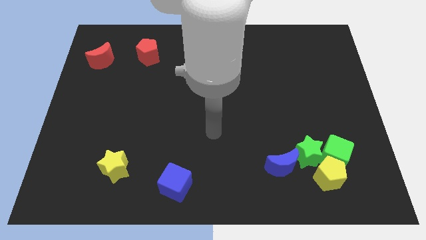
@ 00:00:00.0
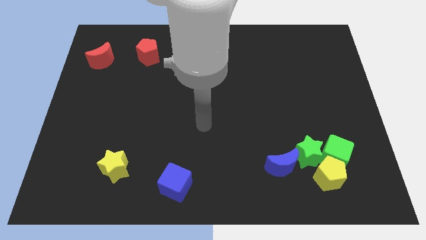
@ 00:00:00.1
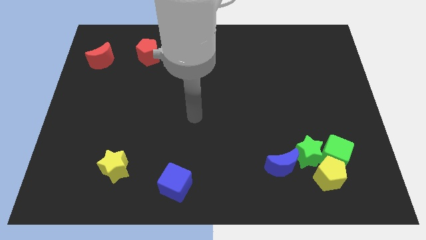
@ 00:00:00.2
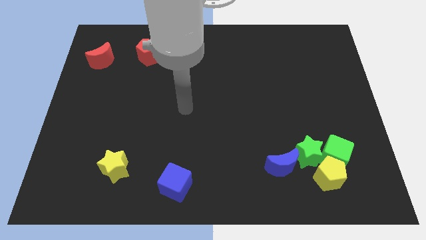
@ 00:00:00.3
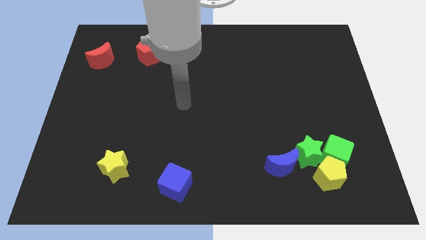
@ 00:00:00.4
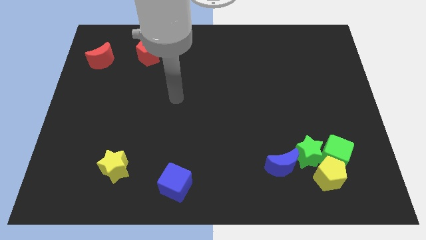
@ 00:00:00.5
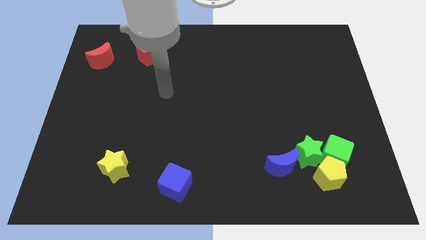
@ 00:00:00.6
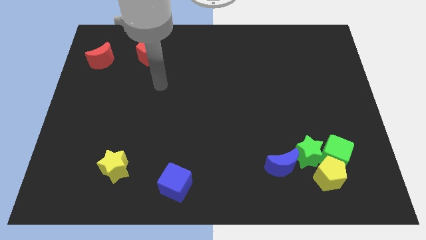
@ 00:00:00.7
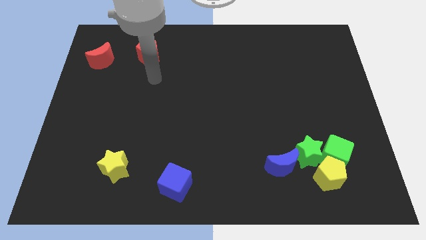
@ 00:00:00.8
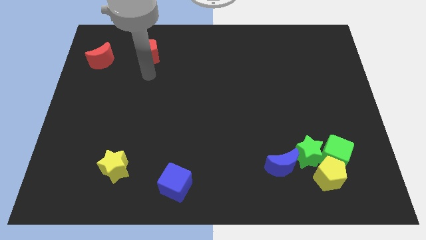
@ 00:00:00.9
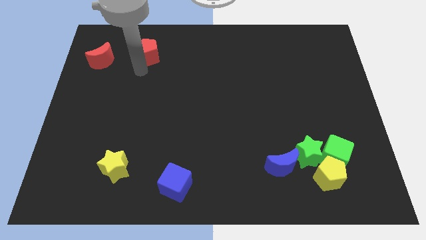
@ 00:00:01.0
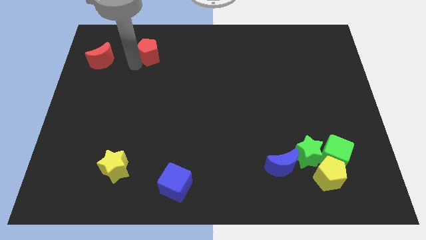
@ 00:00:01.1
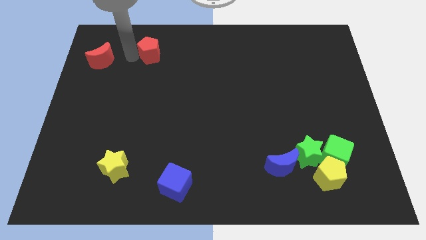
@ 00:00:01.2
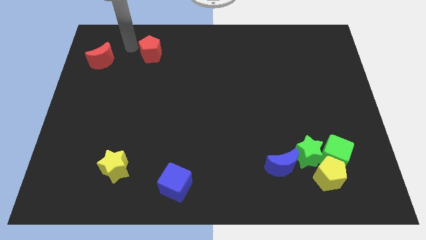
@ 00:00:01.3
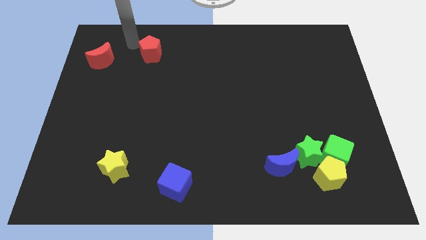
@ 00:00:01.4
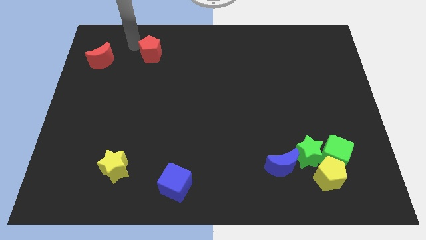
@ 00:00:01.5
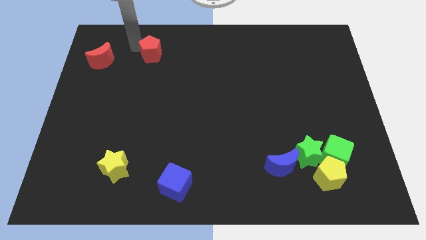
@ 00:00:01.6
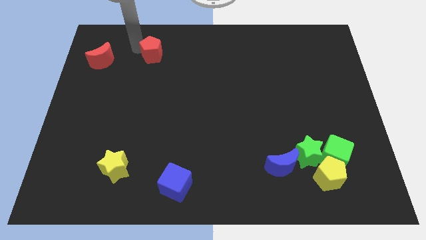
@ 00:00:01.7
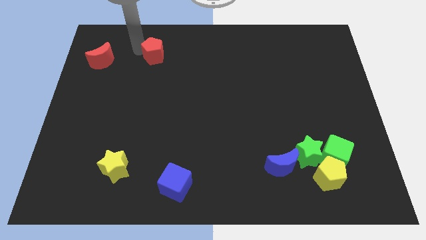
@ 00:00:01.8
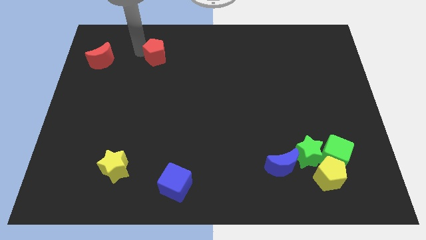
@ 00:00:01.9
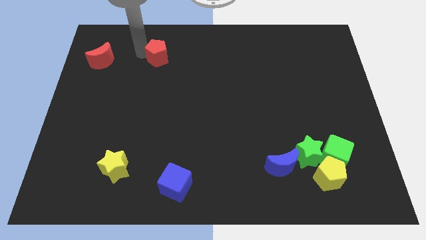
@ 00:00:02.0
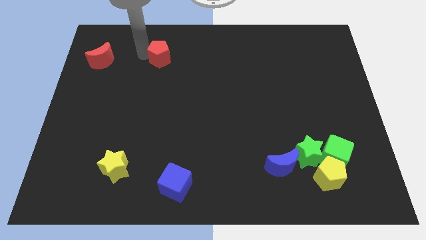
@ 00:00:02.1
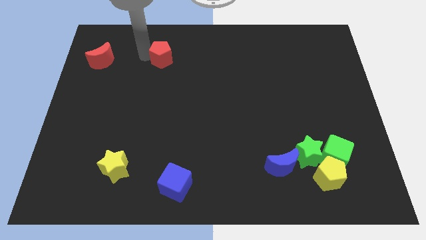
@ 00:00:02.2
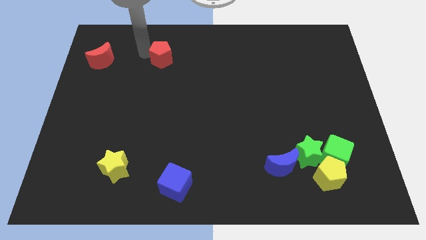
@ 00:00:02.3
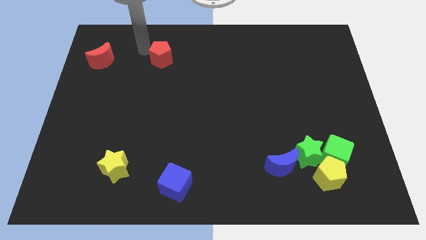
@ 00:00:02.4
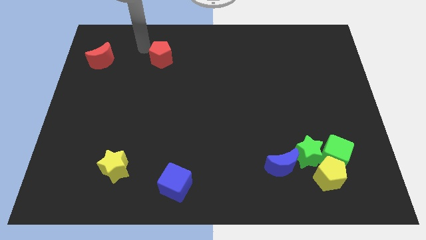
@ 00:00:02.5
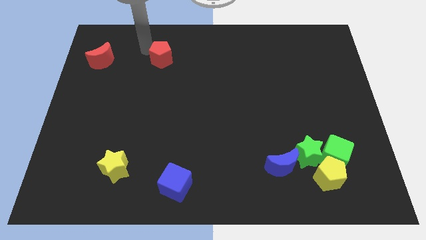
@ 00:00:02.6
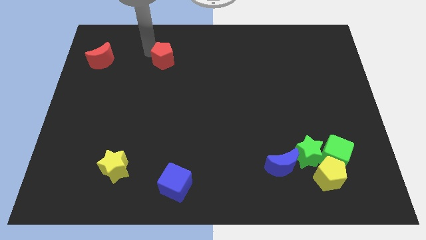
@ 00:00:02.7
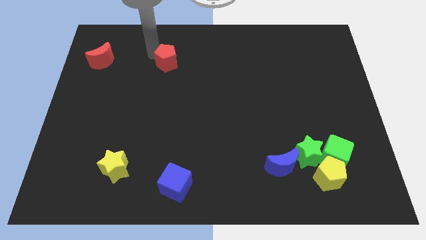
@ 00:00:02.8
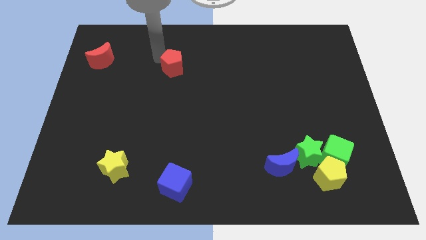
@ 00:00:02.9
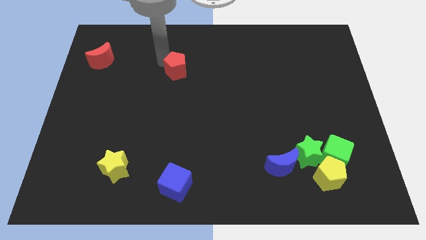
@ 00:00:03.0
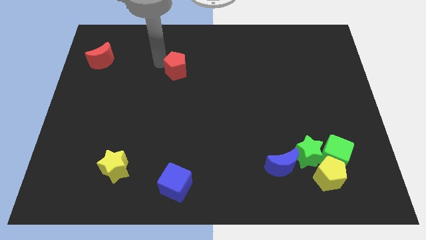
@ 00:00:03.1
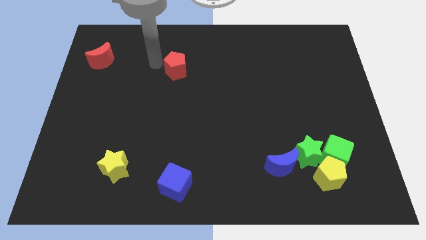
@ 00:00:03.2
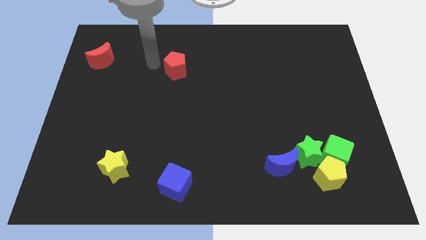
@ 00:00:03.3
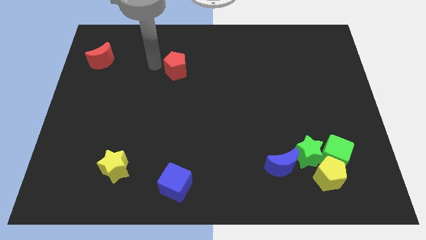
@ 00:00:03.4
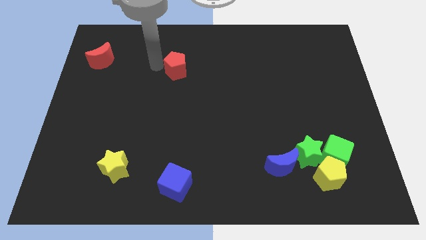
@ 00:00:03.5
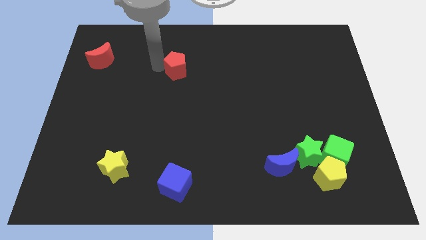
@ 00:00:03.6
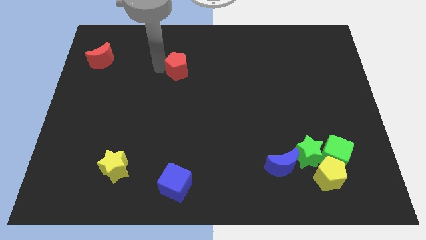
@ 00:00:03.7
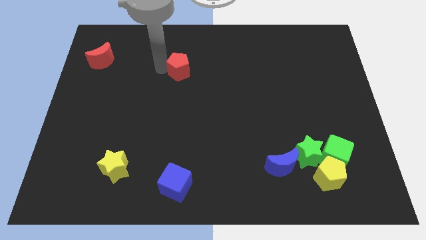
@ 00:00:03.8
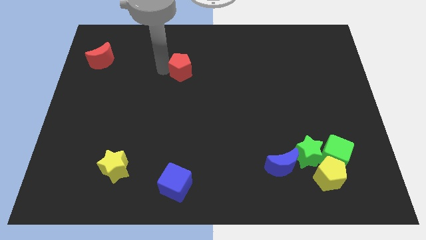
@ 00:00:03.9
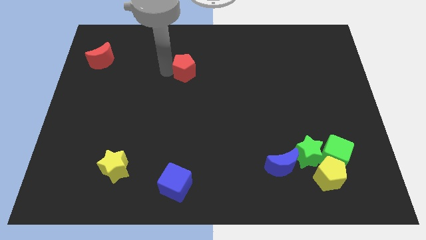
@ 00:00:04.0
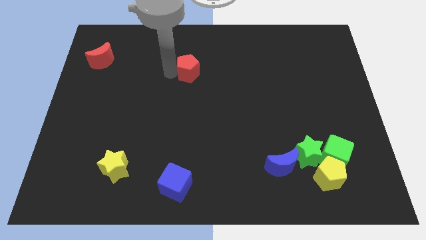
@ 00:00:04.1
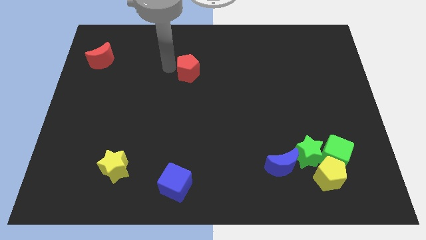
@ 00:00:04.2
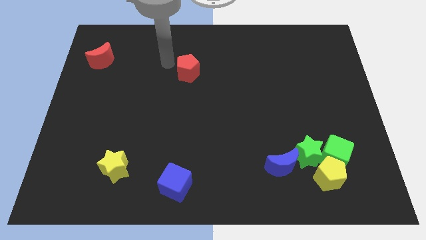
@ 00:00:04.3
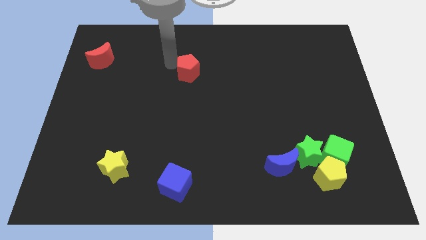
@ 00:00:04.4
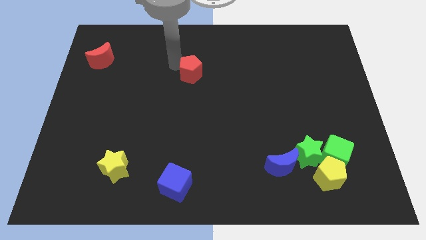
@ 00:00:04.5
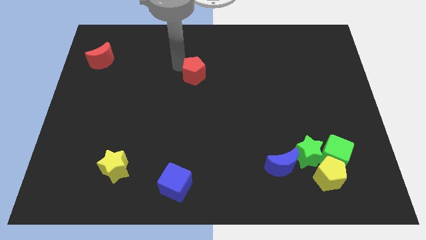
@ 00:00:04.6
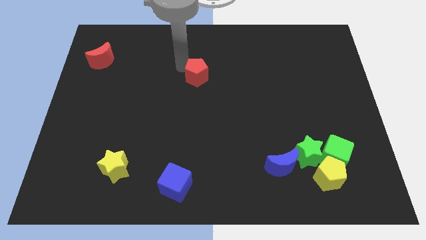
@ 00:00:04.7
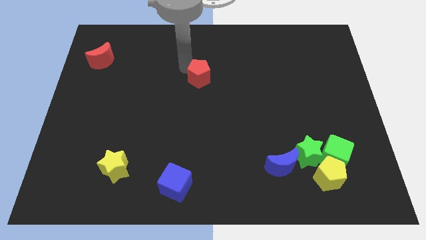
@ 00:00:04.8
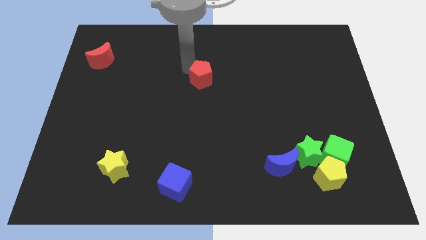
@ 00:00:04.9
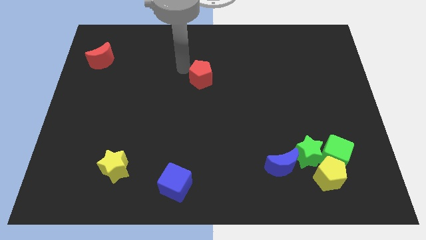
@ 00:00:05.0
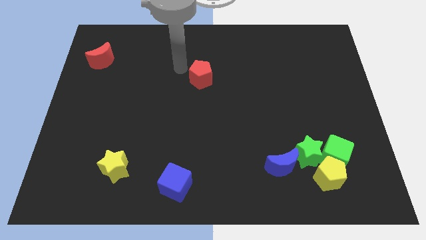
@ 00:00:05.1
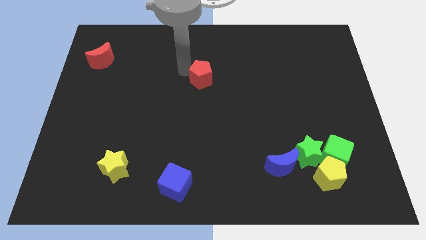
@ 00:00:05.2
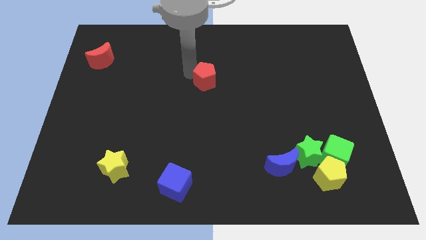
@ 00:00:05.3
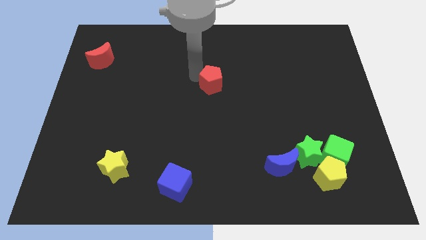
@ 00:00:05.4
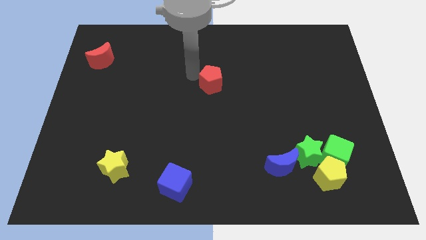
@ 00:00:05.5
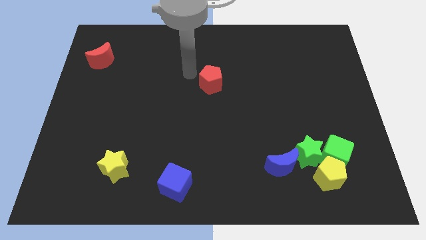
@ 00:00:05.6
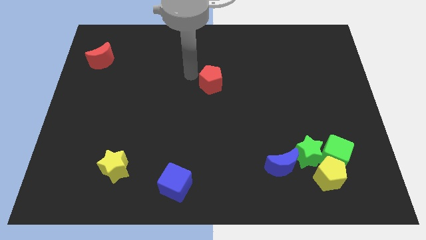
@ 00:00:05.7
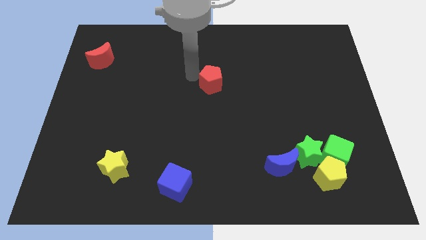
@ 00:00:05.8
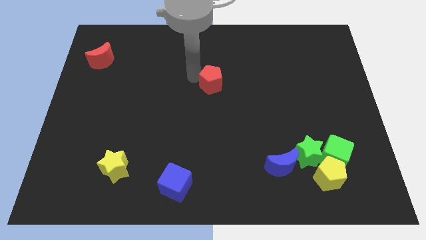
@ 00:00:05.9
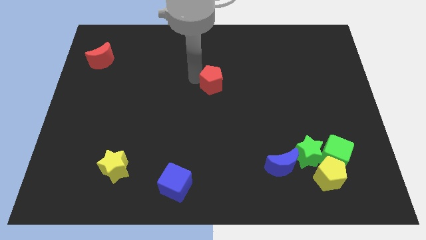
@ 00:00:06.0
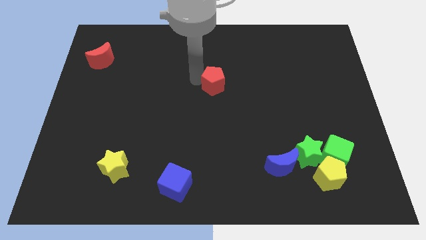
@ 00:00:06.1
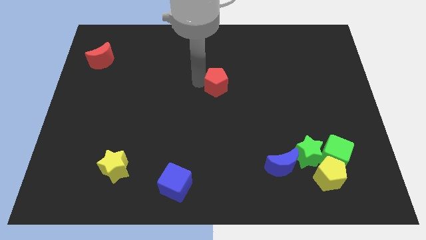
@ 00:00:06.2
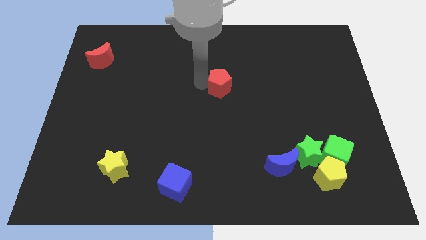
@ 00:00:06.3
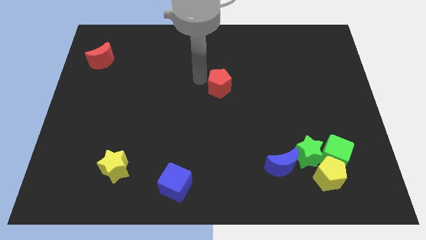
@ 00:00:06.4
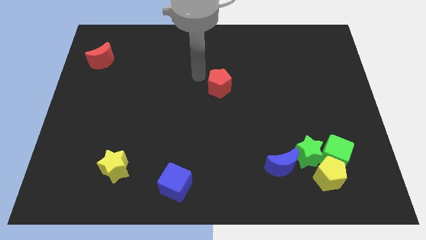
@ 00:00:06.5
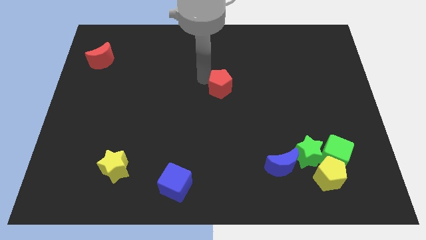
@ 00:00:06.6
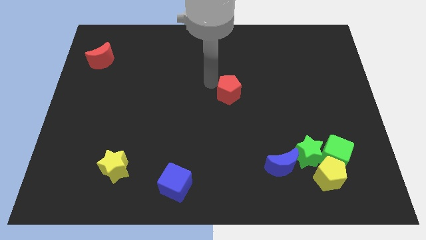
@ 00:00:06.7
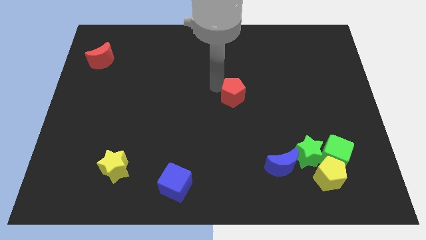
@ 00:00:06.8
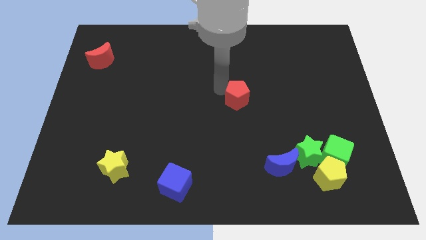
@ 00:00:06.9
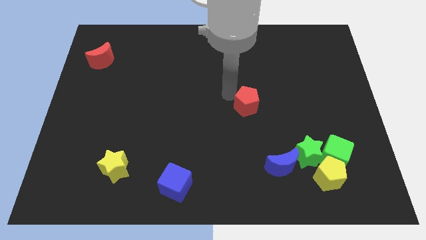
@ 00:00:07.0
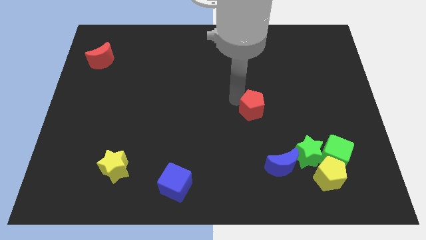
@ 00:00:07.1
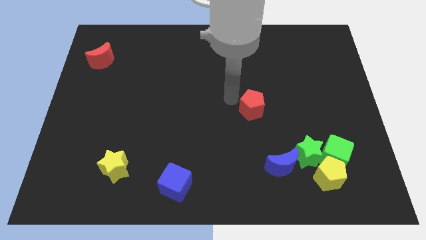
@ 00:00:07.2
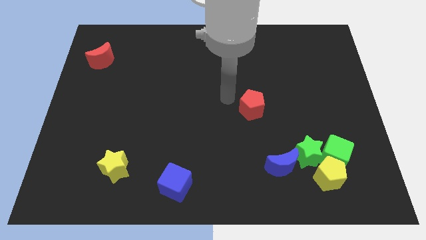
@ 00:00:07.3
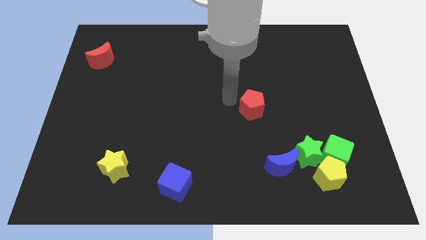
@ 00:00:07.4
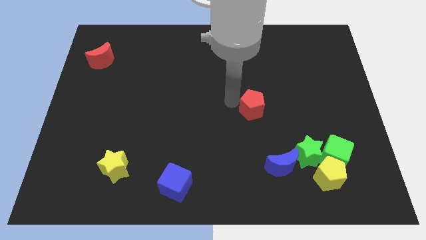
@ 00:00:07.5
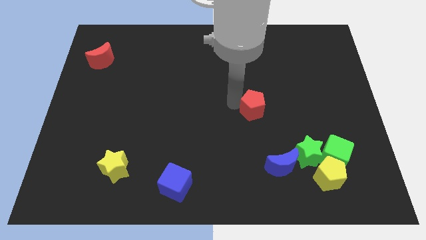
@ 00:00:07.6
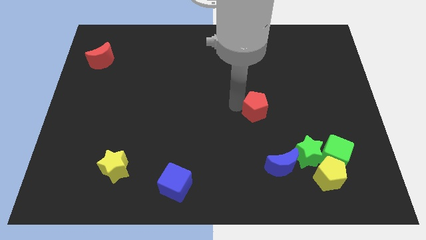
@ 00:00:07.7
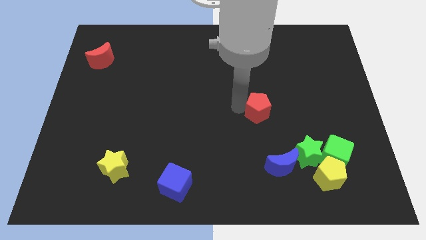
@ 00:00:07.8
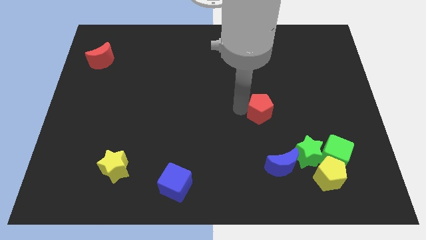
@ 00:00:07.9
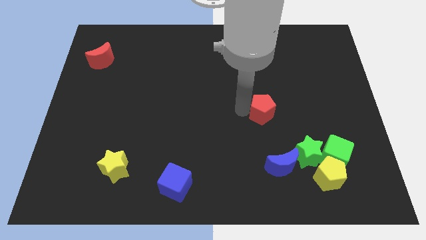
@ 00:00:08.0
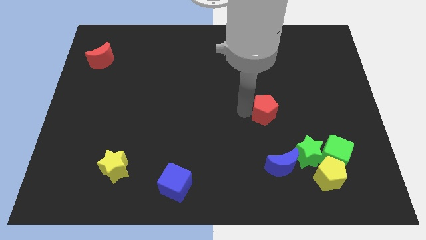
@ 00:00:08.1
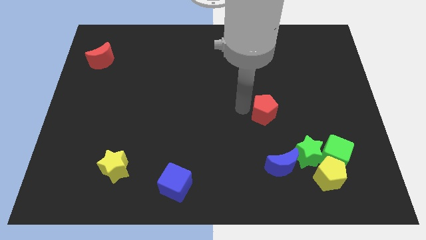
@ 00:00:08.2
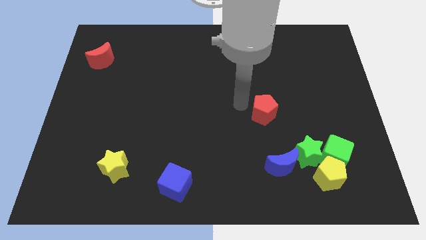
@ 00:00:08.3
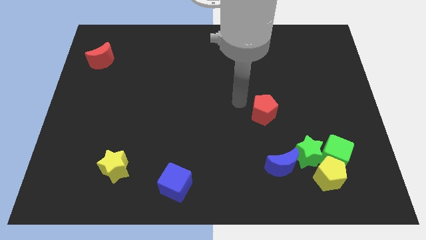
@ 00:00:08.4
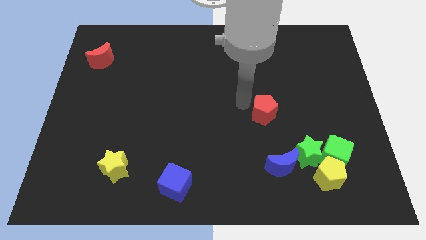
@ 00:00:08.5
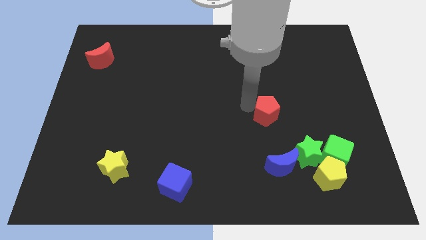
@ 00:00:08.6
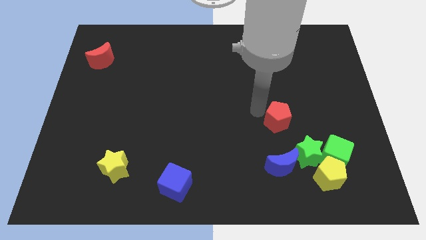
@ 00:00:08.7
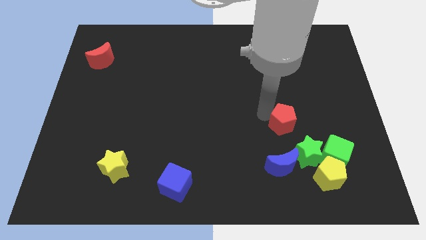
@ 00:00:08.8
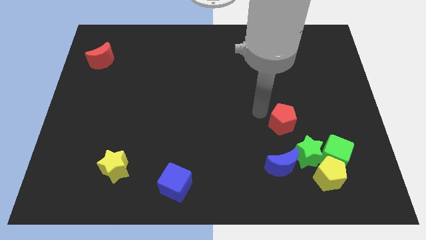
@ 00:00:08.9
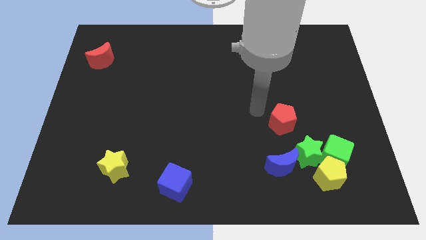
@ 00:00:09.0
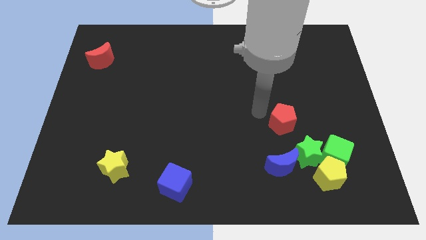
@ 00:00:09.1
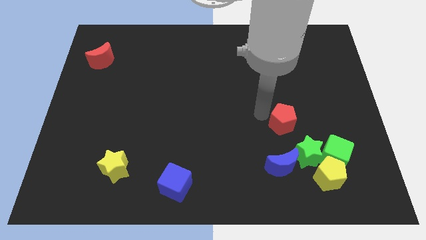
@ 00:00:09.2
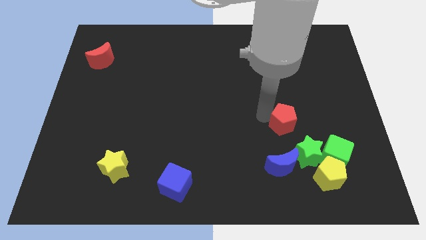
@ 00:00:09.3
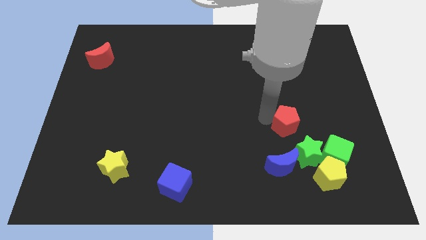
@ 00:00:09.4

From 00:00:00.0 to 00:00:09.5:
slide the red pentagon to the top left of the green cube
